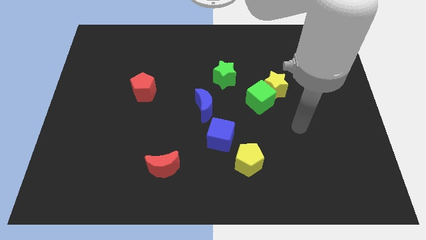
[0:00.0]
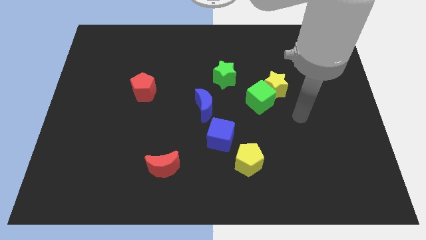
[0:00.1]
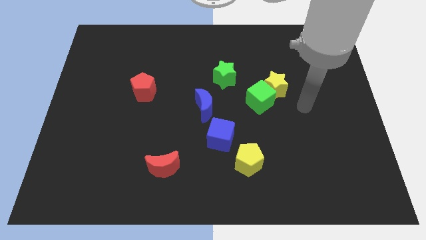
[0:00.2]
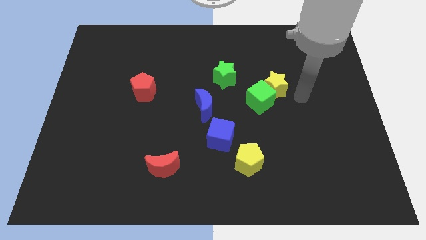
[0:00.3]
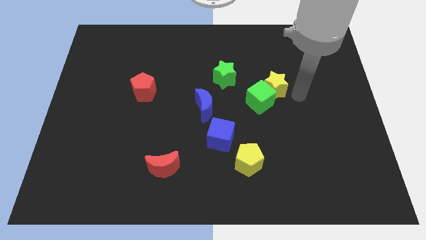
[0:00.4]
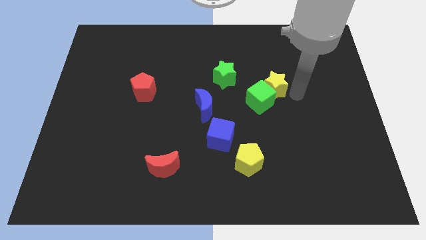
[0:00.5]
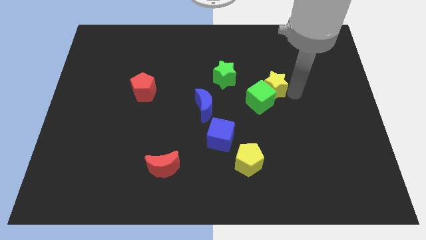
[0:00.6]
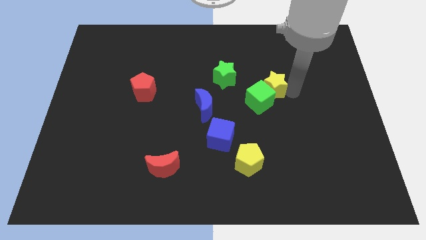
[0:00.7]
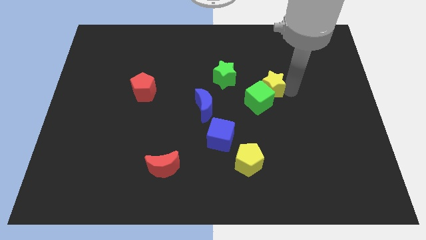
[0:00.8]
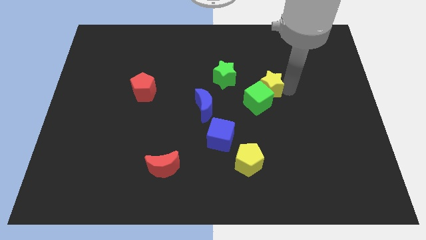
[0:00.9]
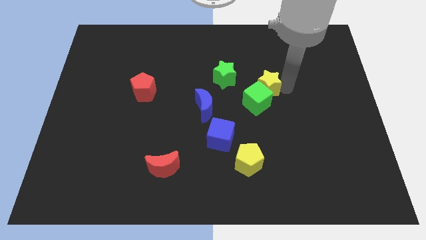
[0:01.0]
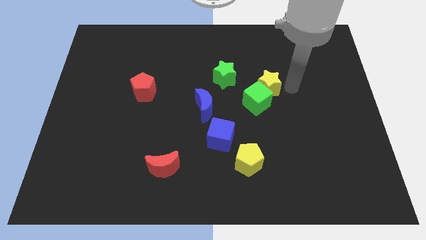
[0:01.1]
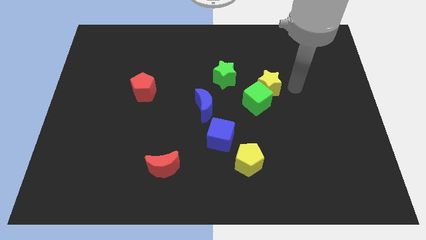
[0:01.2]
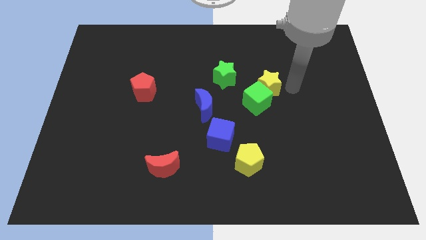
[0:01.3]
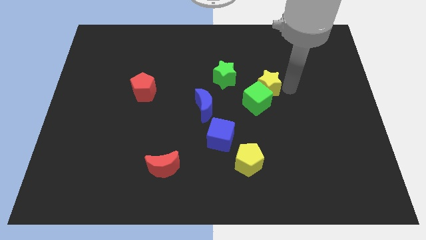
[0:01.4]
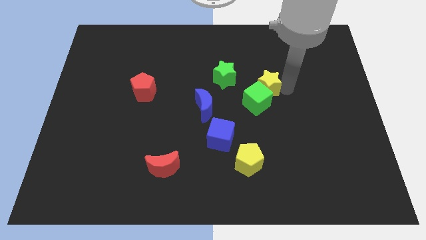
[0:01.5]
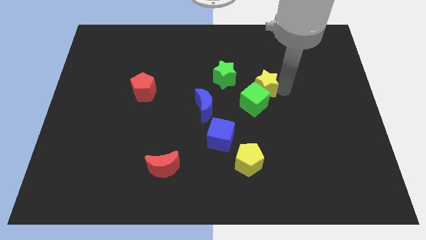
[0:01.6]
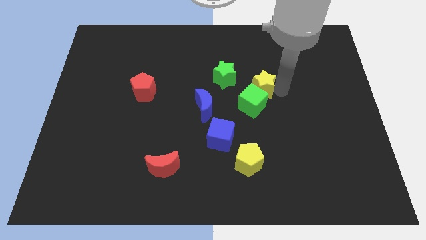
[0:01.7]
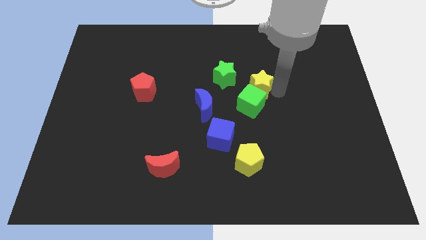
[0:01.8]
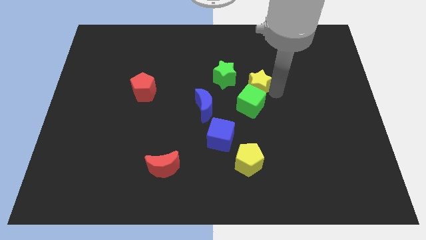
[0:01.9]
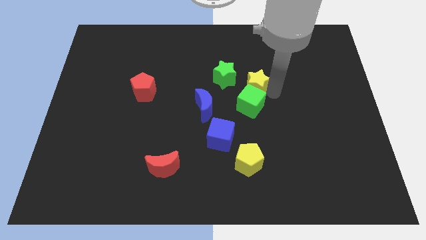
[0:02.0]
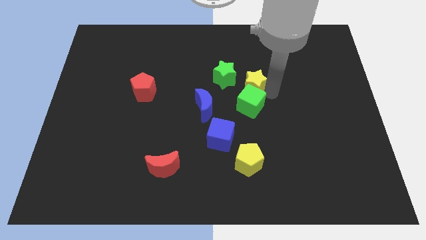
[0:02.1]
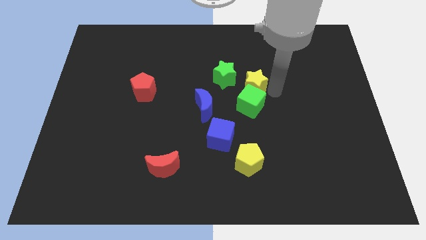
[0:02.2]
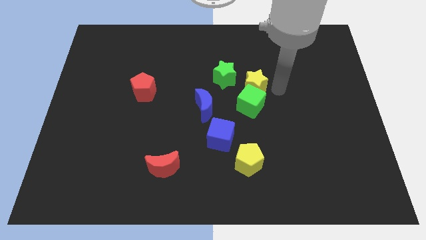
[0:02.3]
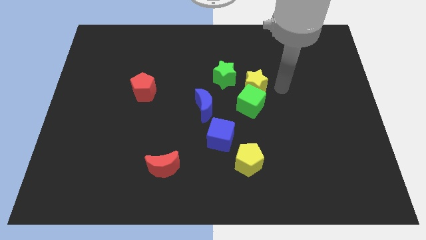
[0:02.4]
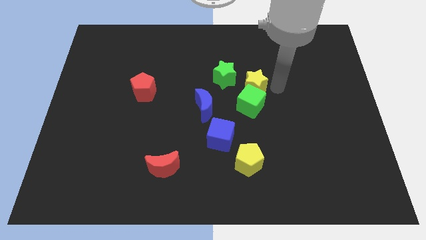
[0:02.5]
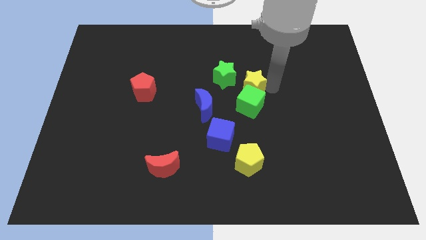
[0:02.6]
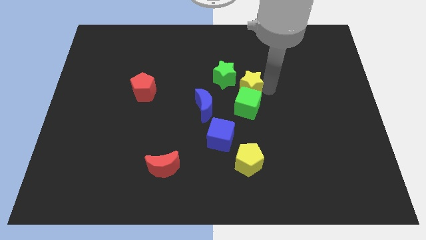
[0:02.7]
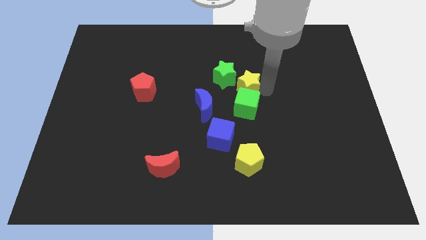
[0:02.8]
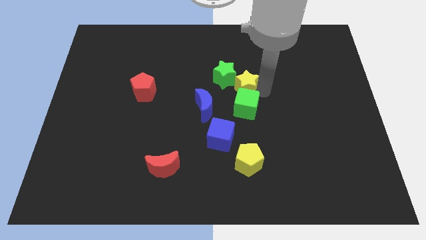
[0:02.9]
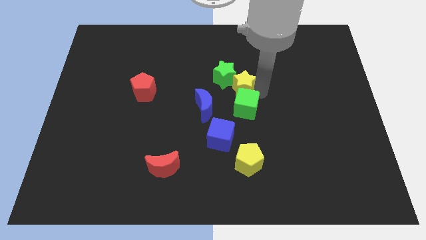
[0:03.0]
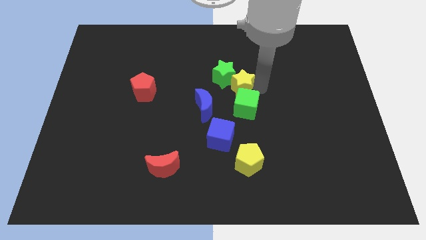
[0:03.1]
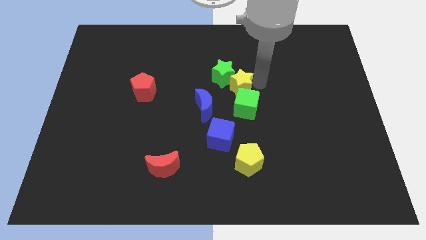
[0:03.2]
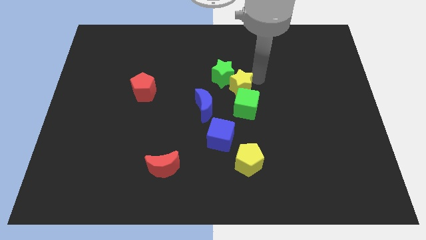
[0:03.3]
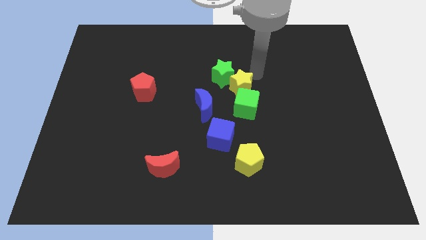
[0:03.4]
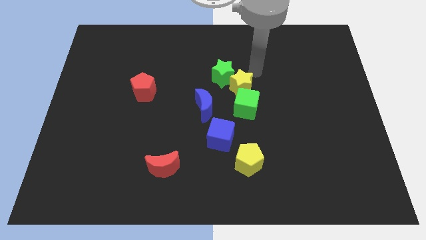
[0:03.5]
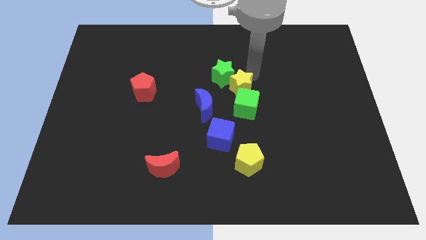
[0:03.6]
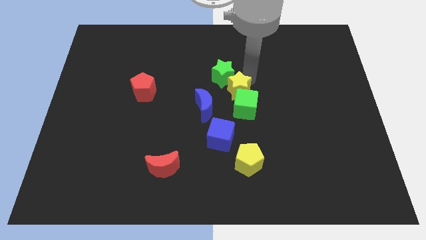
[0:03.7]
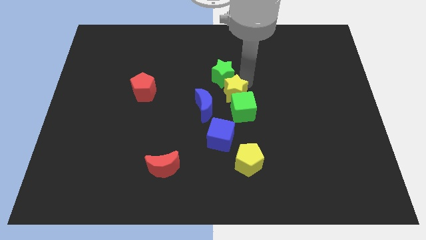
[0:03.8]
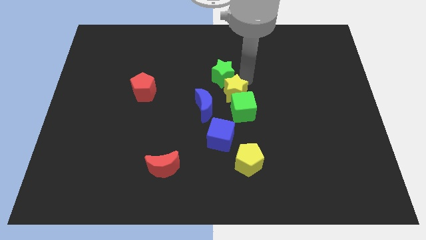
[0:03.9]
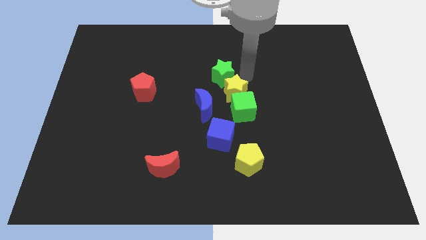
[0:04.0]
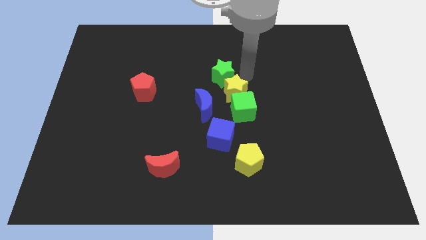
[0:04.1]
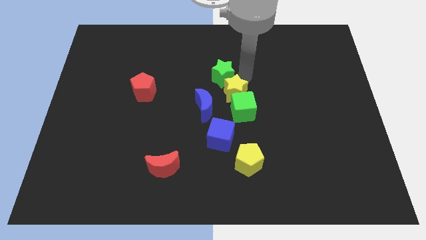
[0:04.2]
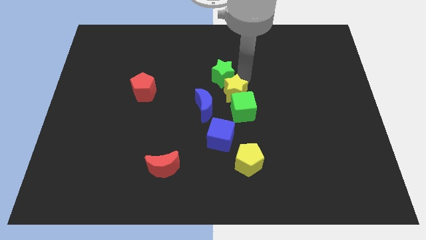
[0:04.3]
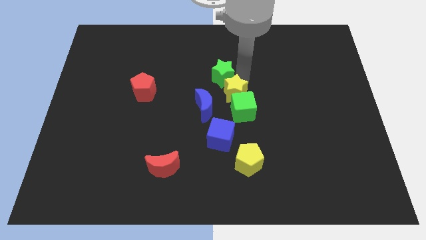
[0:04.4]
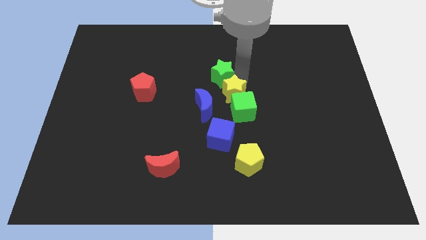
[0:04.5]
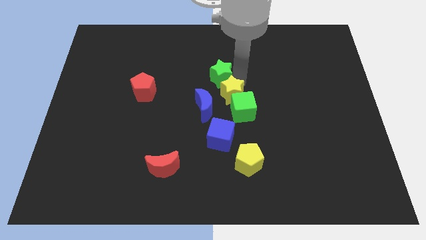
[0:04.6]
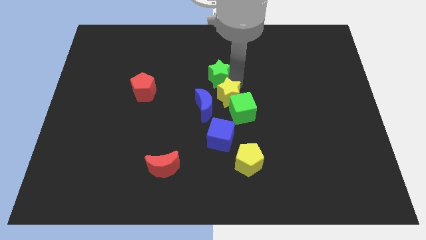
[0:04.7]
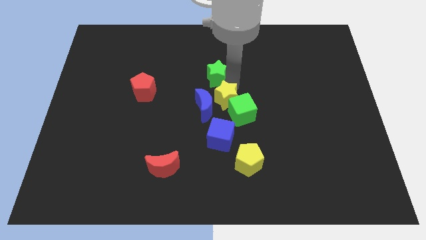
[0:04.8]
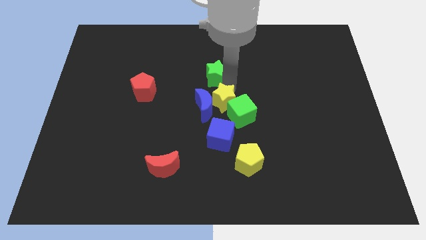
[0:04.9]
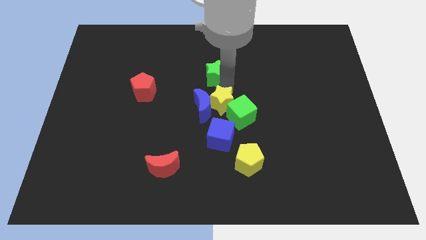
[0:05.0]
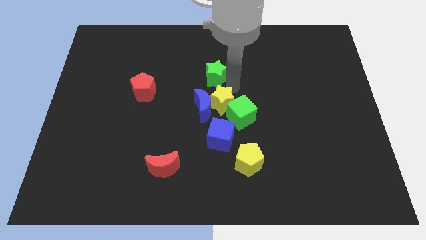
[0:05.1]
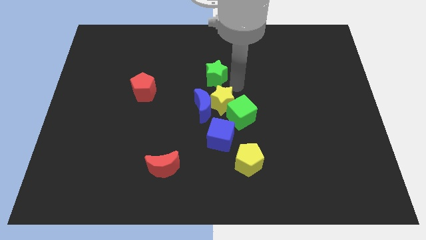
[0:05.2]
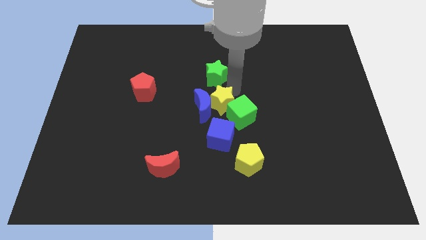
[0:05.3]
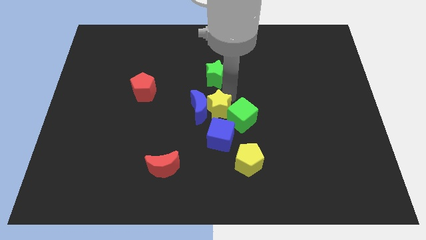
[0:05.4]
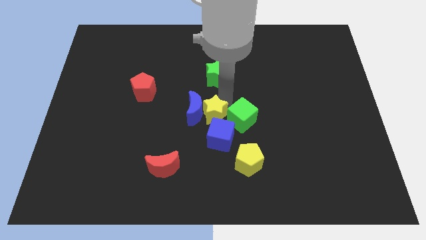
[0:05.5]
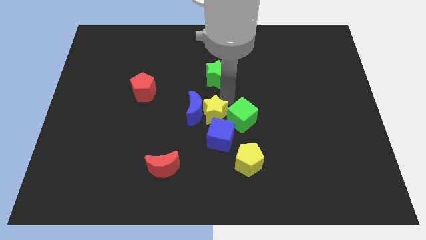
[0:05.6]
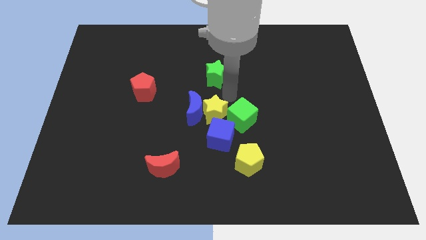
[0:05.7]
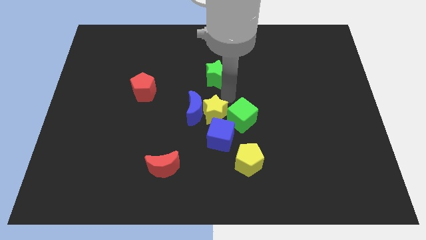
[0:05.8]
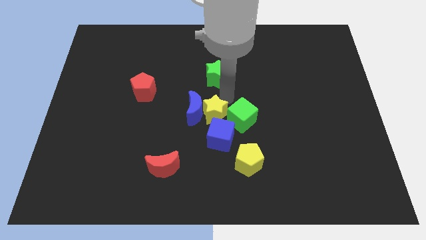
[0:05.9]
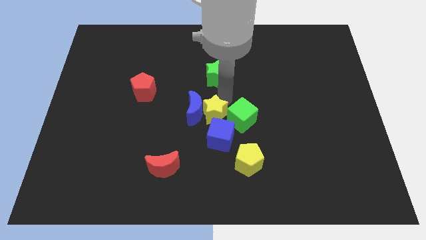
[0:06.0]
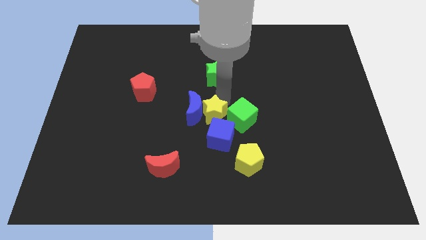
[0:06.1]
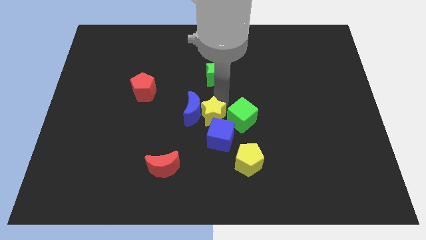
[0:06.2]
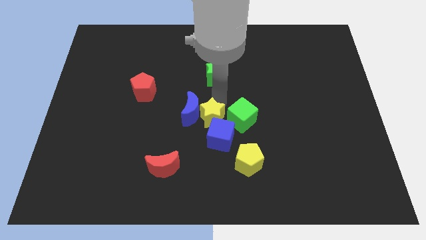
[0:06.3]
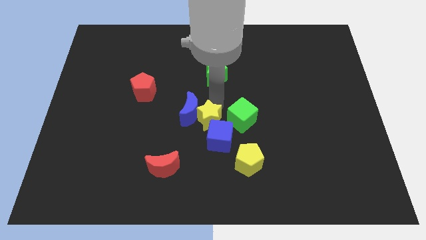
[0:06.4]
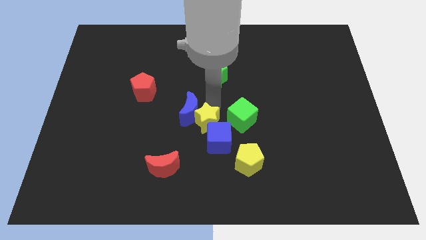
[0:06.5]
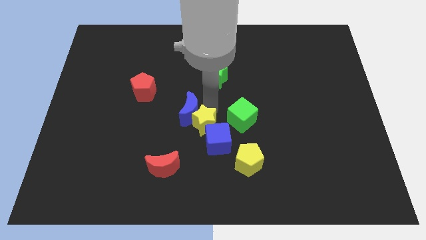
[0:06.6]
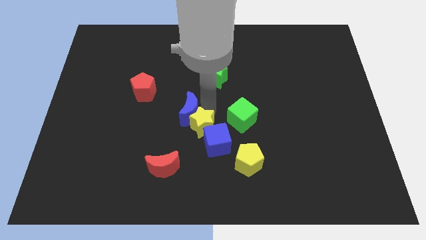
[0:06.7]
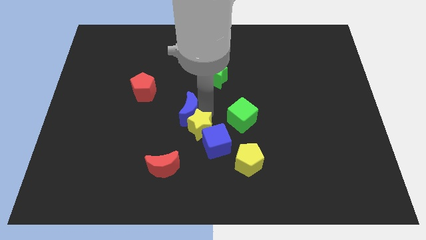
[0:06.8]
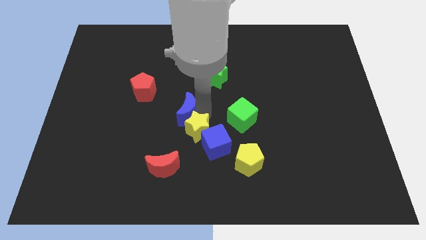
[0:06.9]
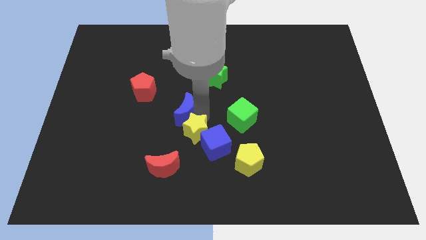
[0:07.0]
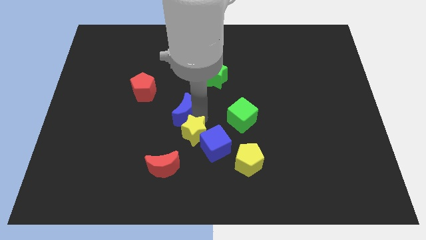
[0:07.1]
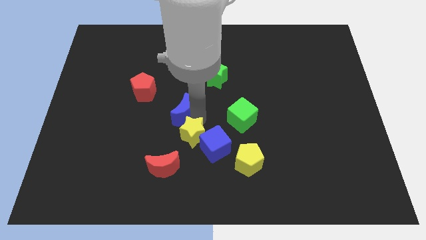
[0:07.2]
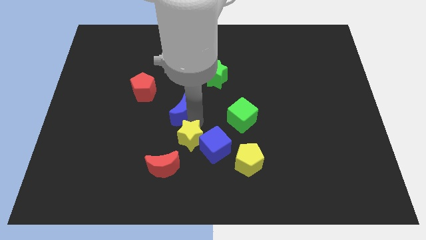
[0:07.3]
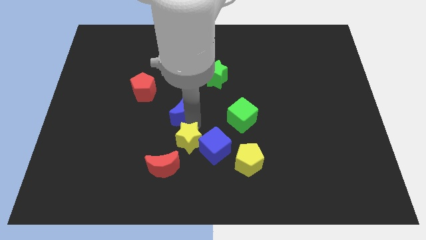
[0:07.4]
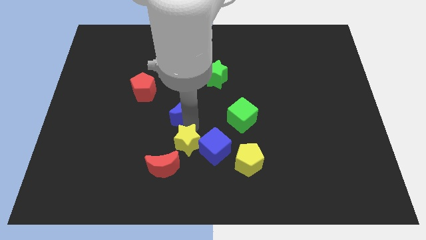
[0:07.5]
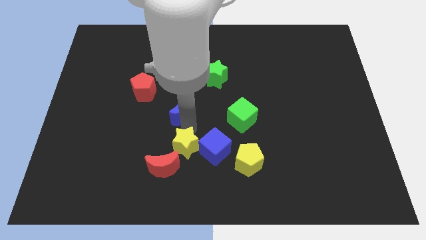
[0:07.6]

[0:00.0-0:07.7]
put the yellow star to the bottom left side of the blue cube
